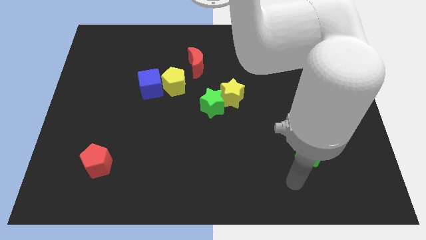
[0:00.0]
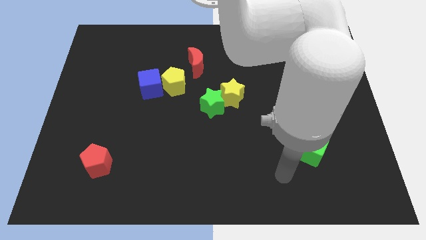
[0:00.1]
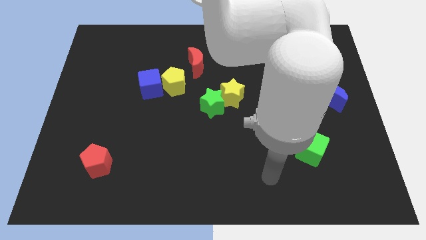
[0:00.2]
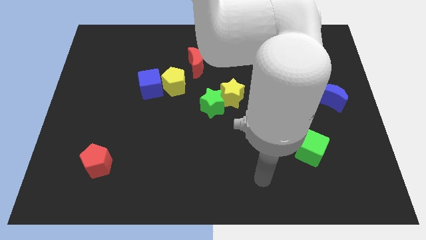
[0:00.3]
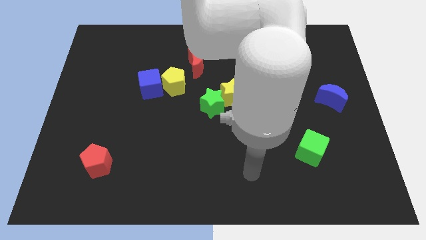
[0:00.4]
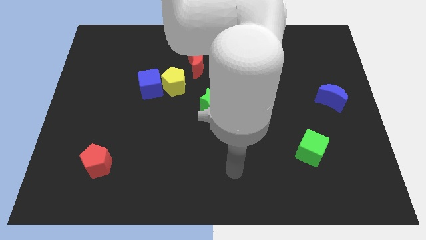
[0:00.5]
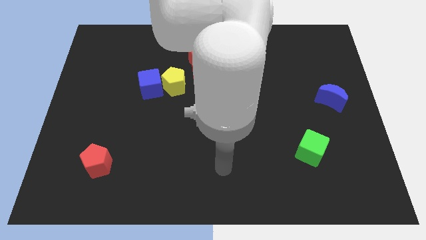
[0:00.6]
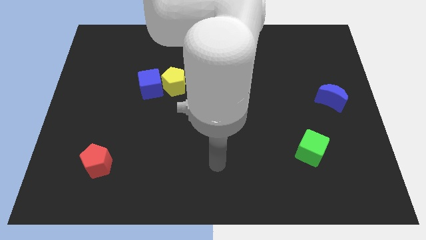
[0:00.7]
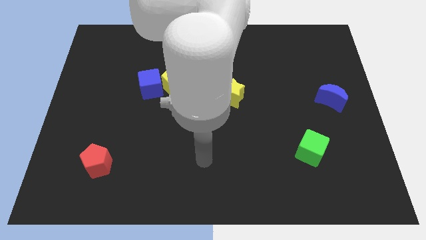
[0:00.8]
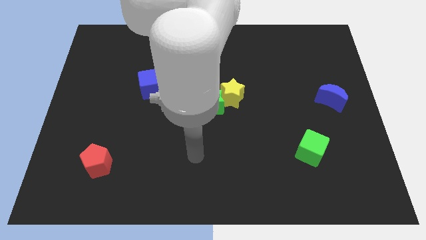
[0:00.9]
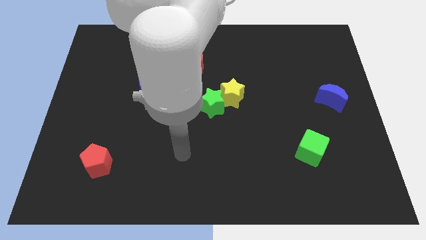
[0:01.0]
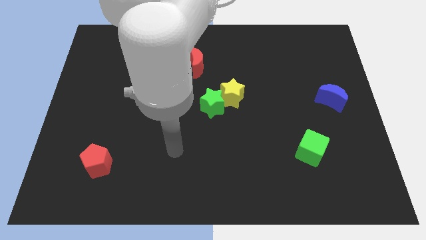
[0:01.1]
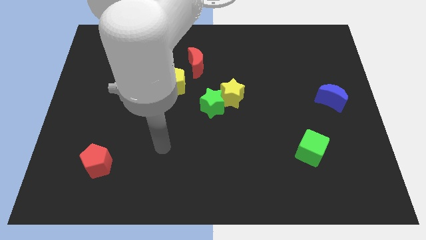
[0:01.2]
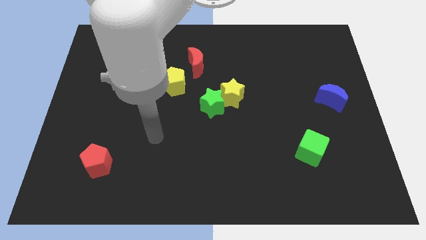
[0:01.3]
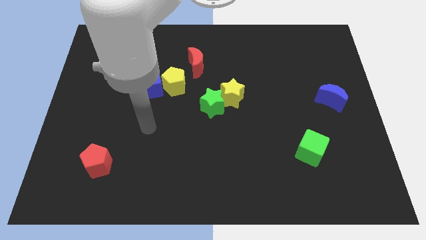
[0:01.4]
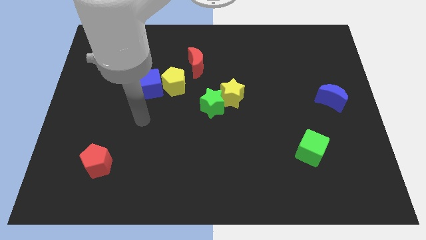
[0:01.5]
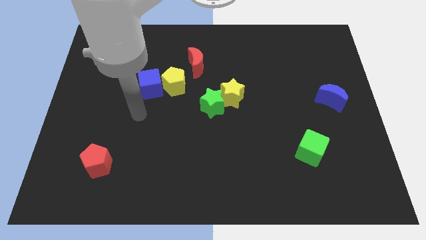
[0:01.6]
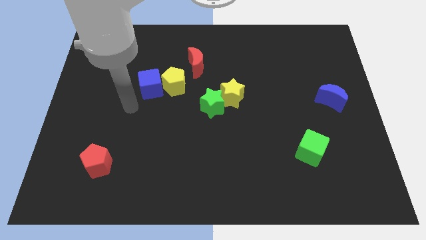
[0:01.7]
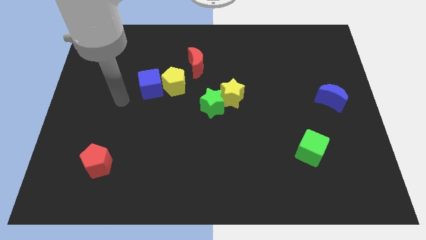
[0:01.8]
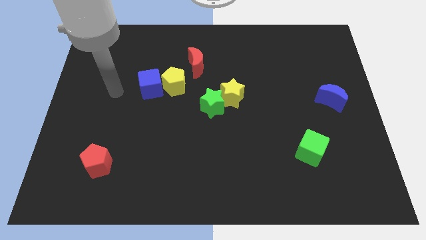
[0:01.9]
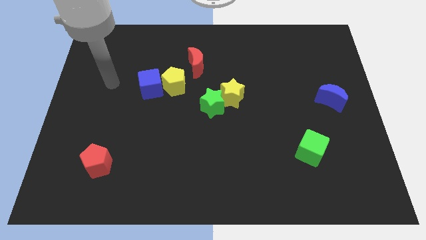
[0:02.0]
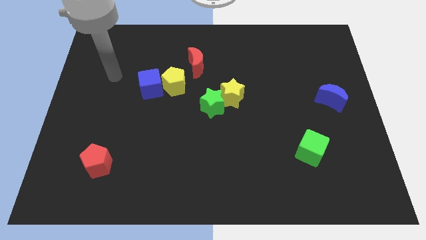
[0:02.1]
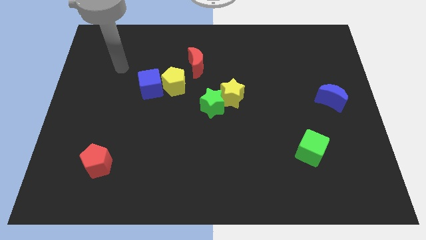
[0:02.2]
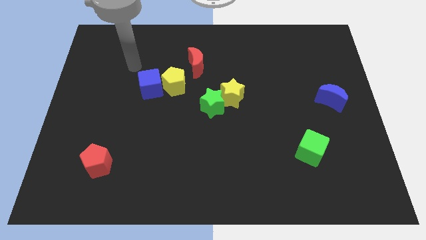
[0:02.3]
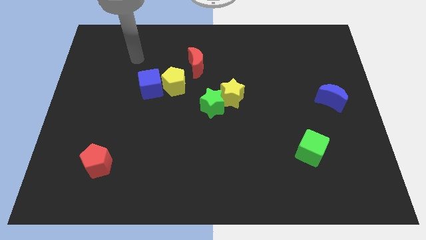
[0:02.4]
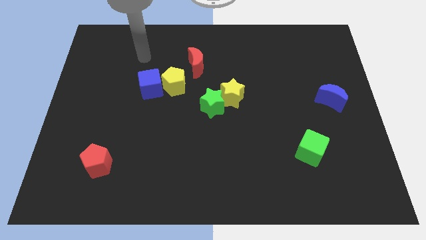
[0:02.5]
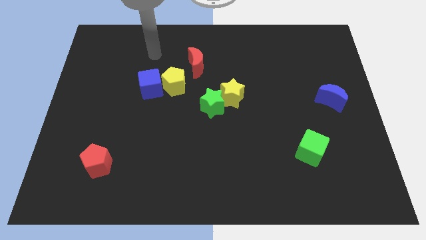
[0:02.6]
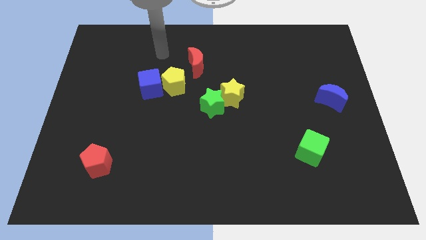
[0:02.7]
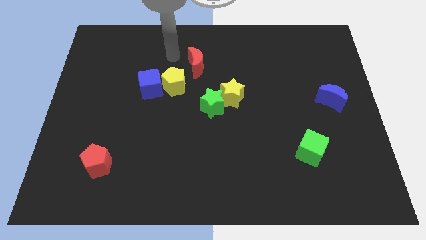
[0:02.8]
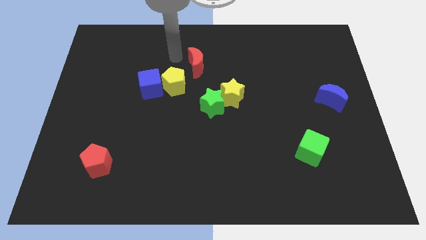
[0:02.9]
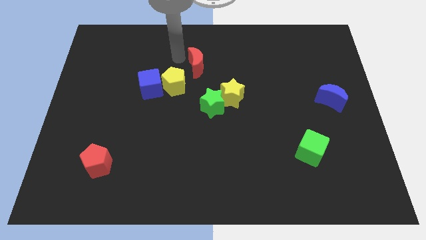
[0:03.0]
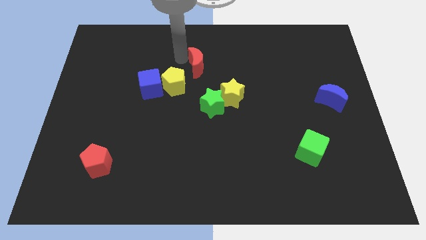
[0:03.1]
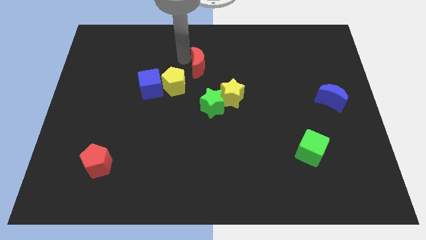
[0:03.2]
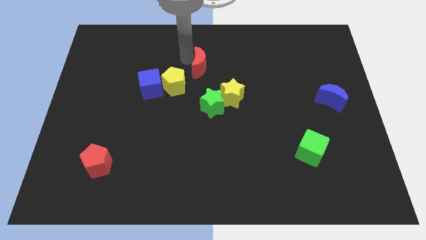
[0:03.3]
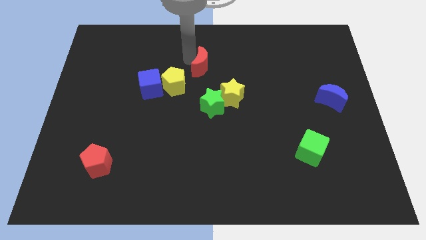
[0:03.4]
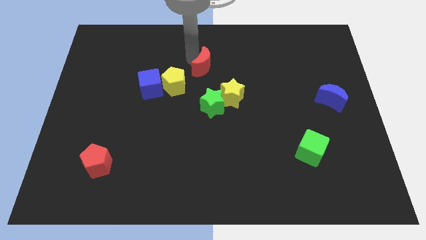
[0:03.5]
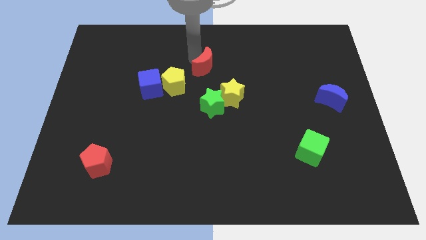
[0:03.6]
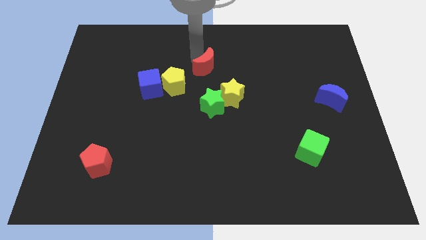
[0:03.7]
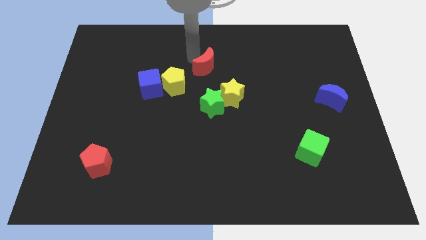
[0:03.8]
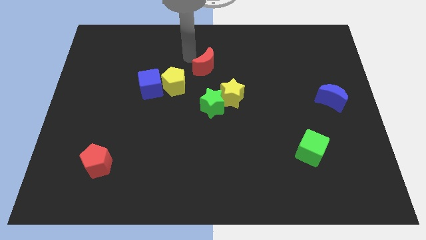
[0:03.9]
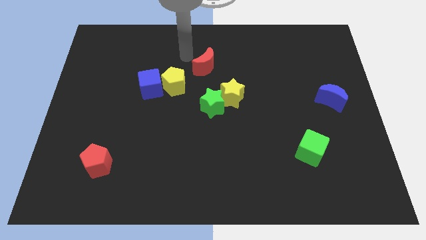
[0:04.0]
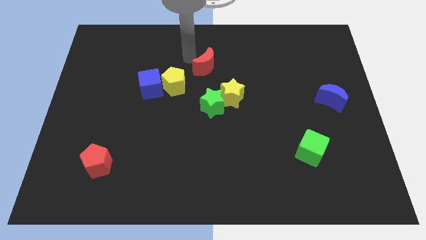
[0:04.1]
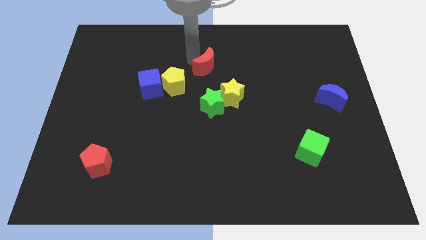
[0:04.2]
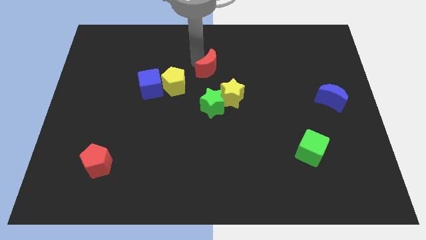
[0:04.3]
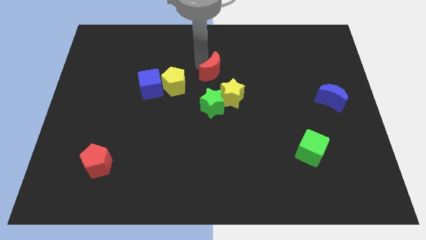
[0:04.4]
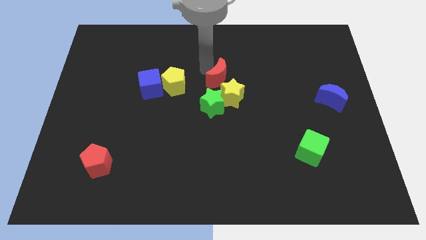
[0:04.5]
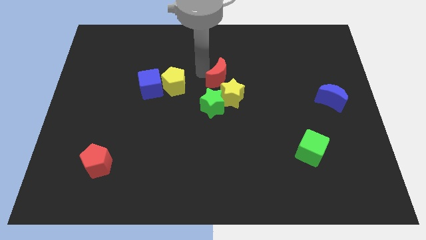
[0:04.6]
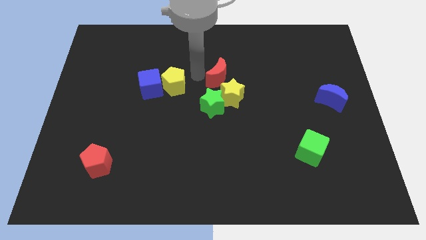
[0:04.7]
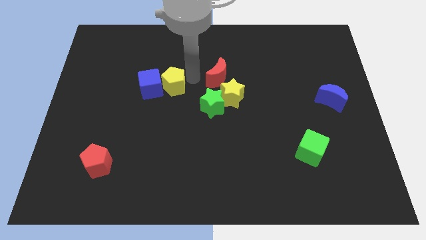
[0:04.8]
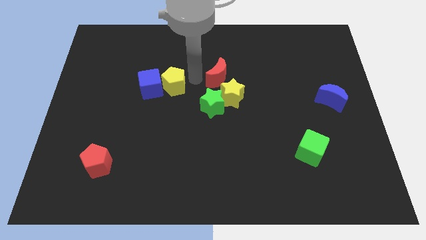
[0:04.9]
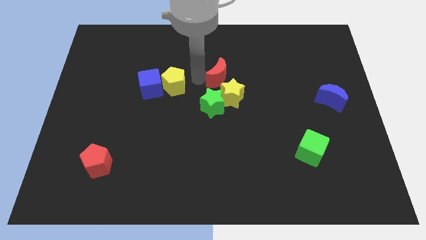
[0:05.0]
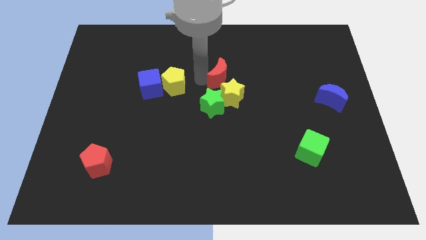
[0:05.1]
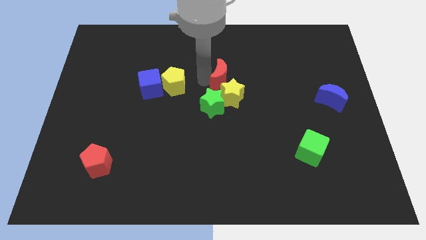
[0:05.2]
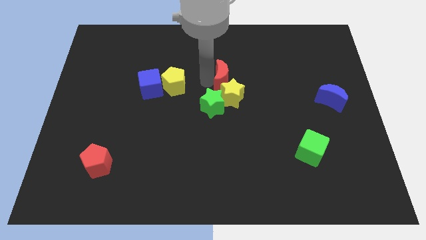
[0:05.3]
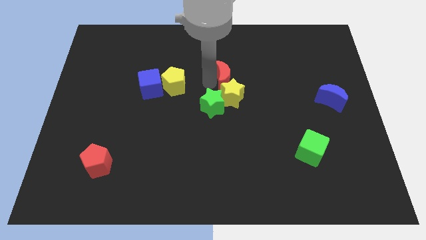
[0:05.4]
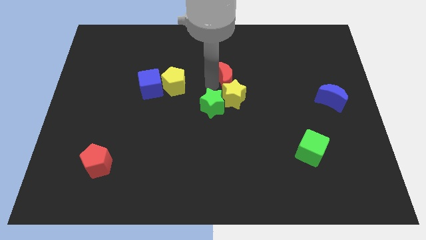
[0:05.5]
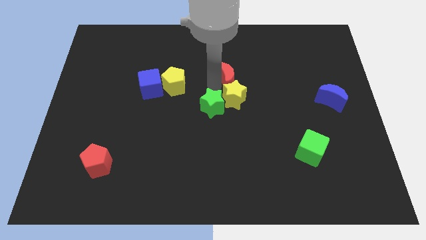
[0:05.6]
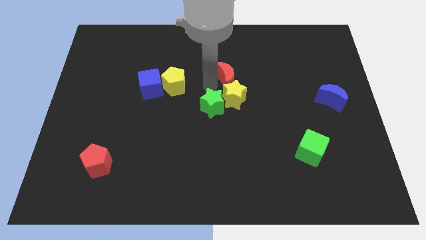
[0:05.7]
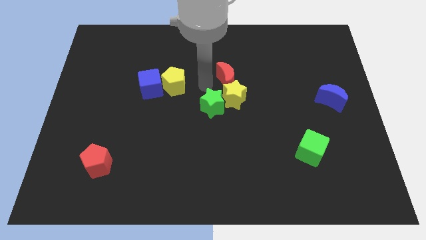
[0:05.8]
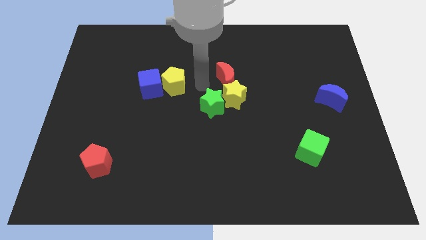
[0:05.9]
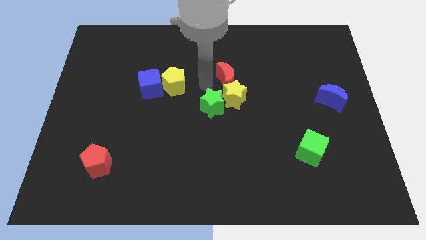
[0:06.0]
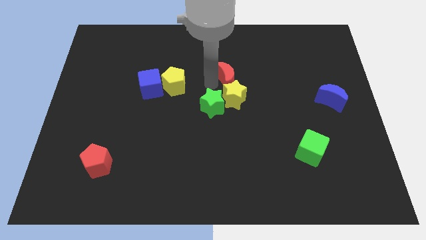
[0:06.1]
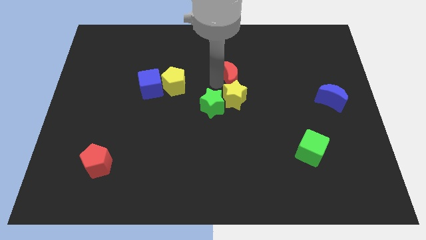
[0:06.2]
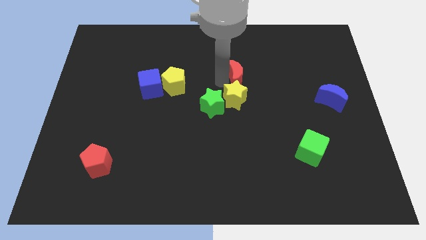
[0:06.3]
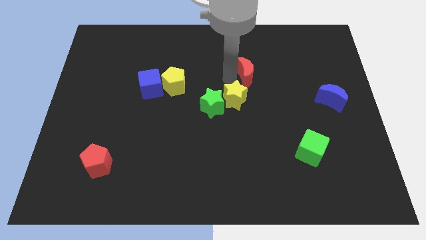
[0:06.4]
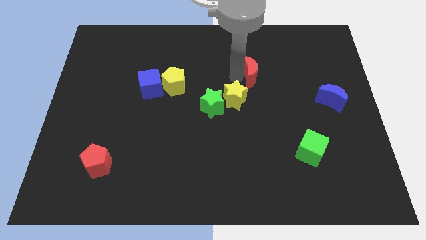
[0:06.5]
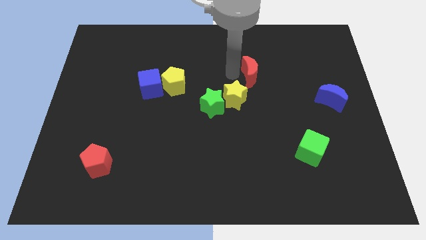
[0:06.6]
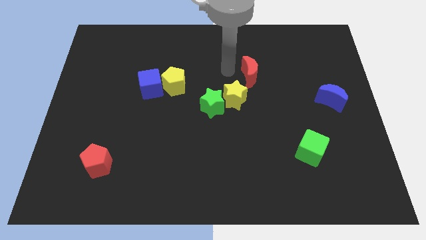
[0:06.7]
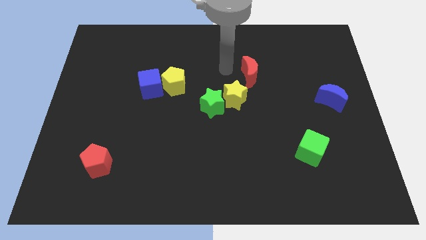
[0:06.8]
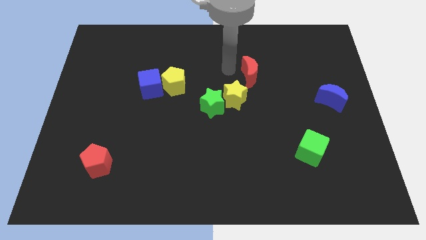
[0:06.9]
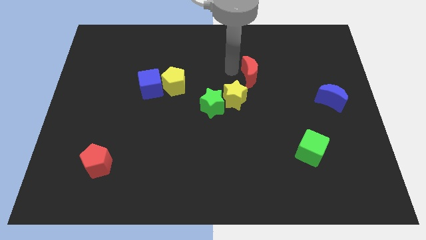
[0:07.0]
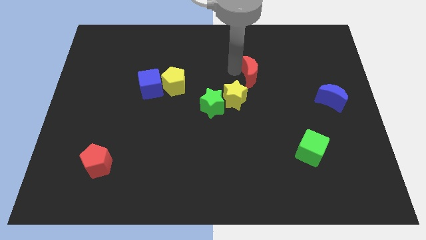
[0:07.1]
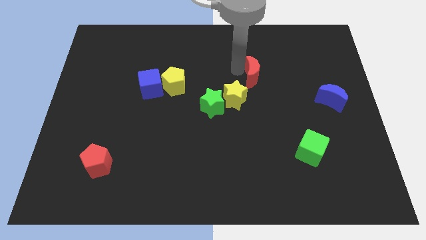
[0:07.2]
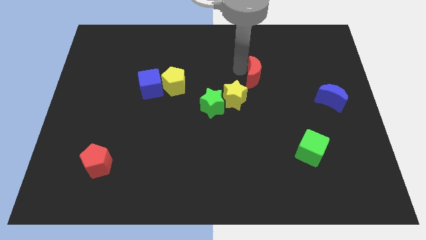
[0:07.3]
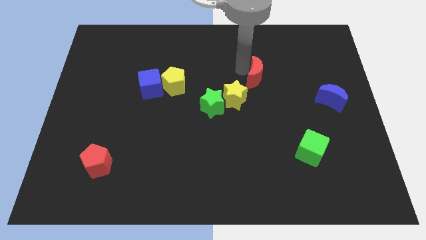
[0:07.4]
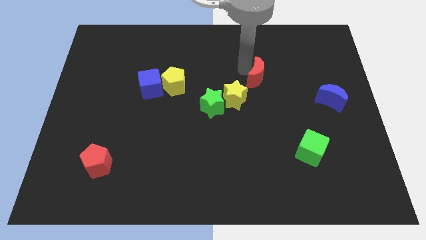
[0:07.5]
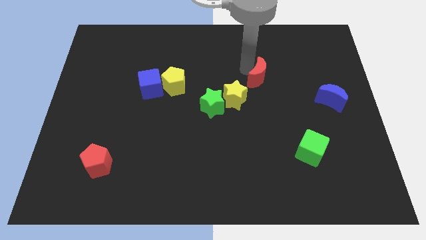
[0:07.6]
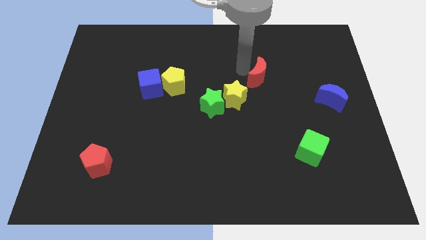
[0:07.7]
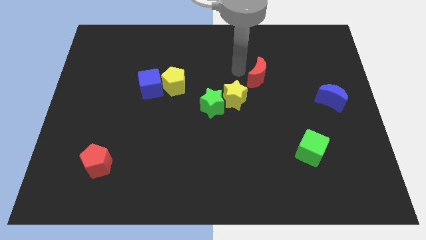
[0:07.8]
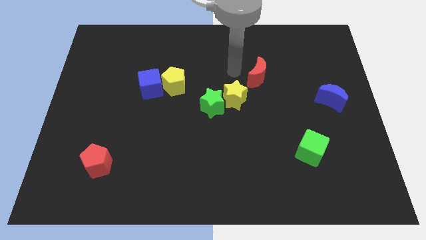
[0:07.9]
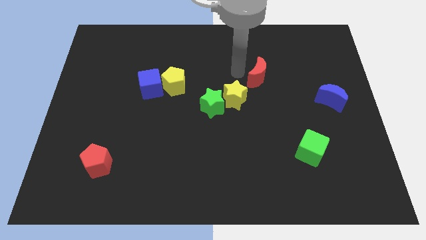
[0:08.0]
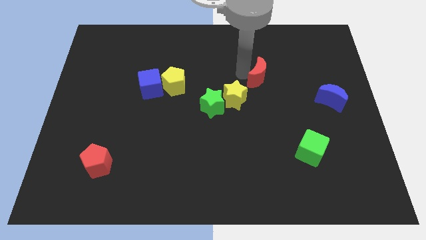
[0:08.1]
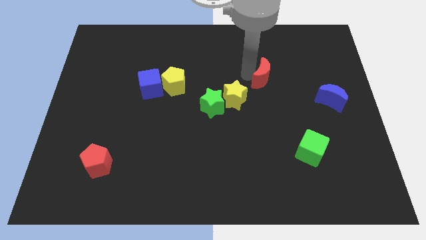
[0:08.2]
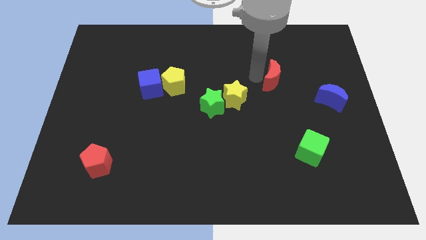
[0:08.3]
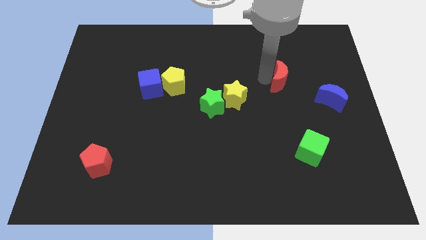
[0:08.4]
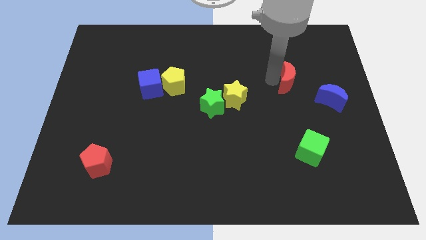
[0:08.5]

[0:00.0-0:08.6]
move the red moon to the top left side of the blue moon
